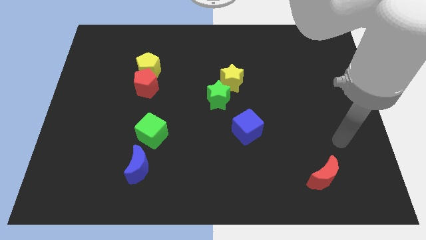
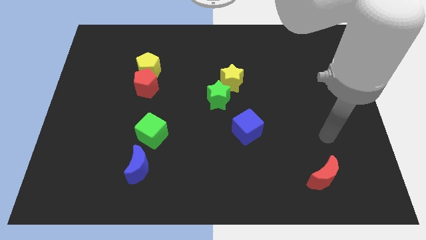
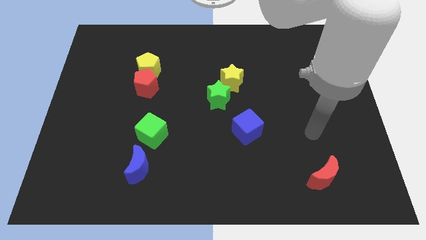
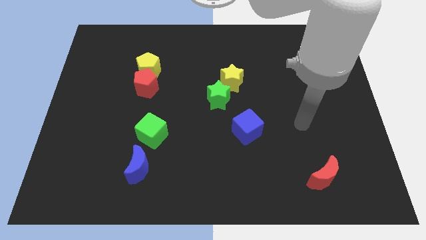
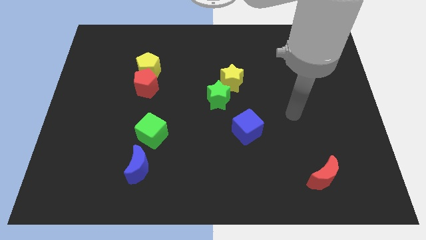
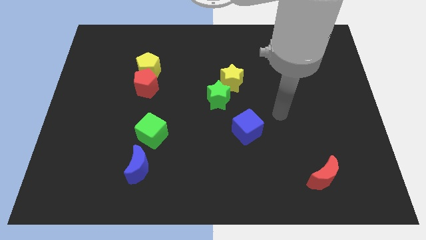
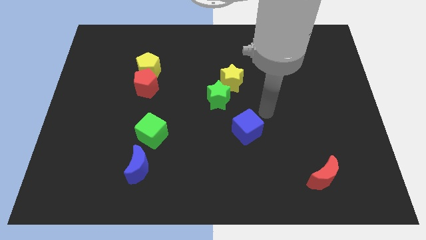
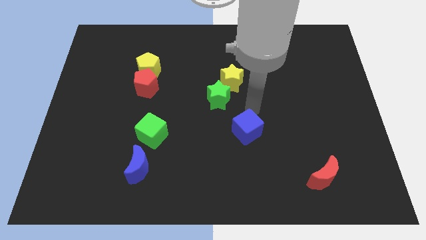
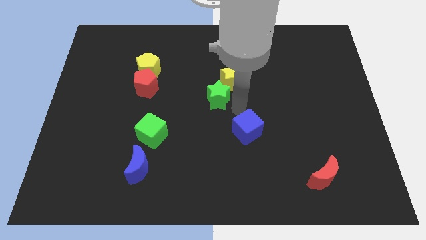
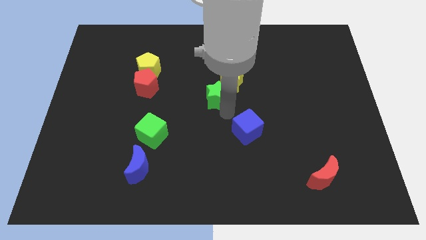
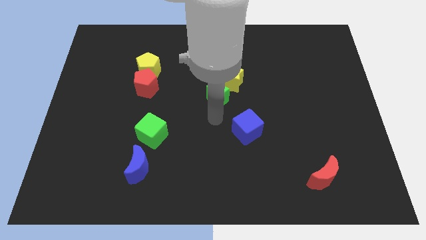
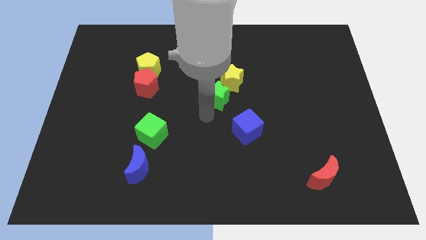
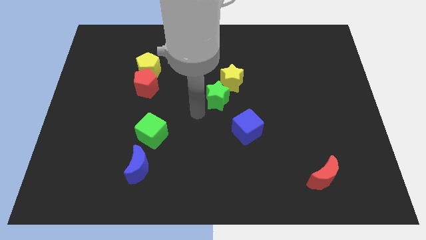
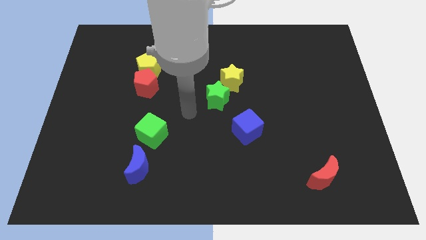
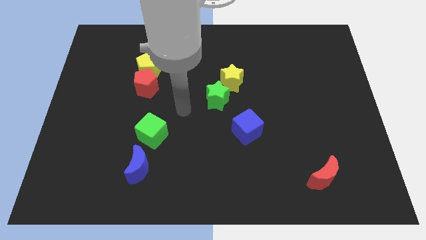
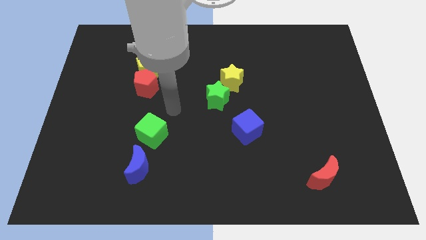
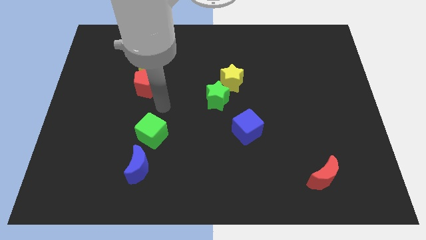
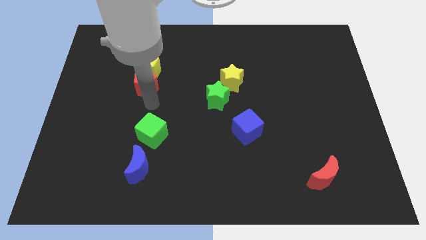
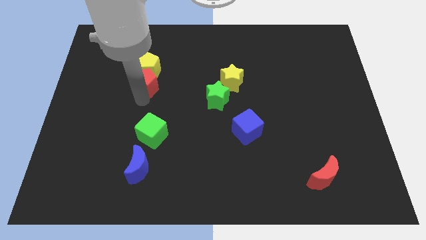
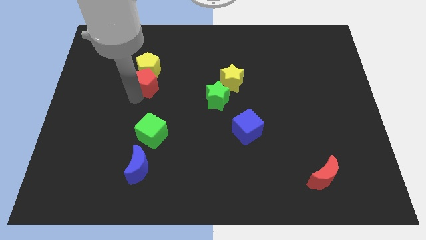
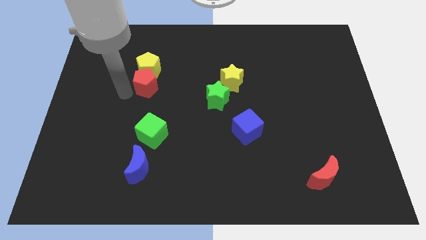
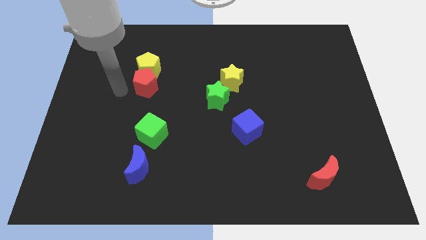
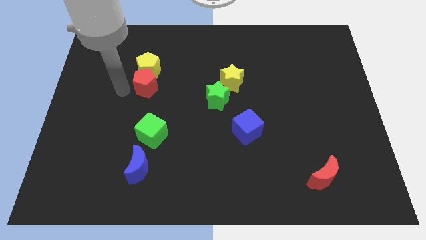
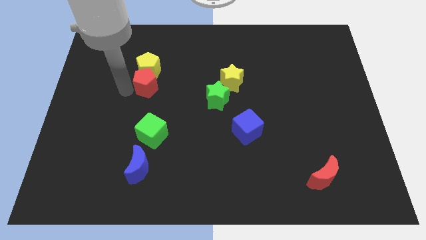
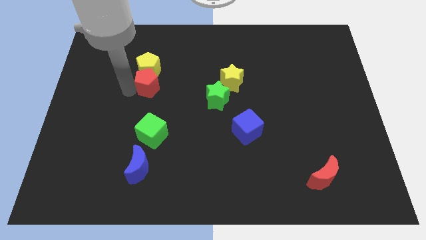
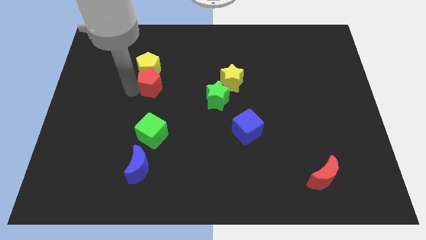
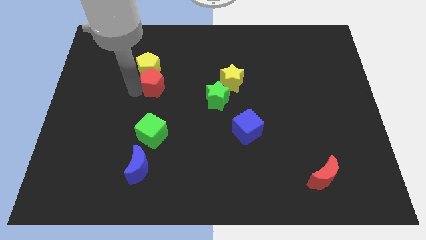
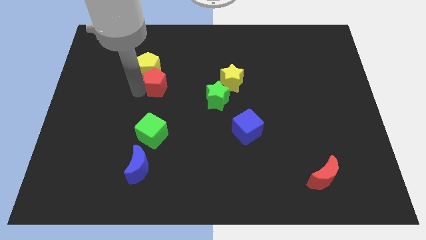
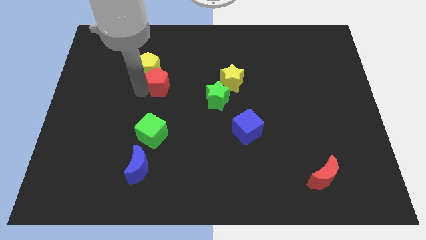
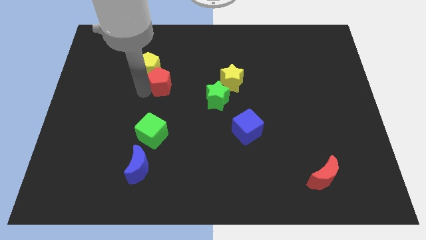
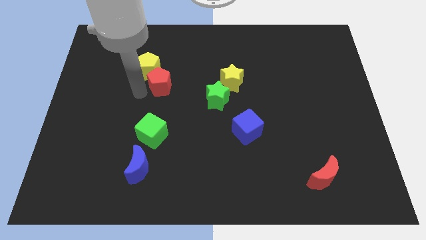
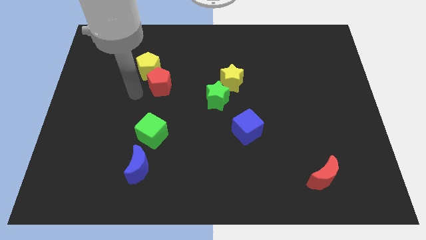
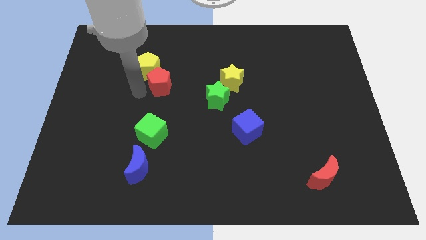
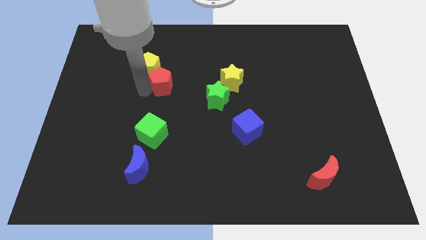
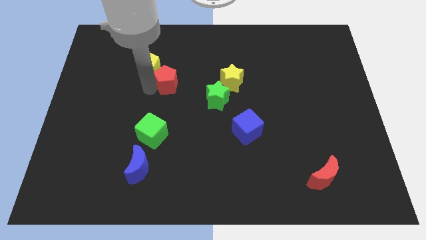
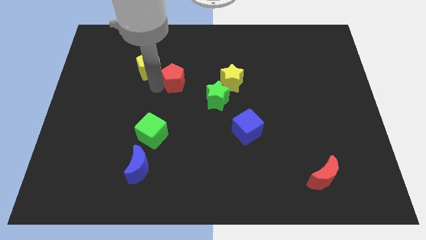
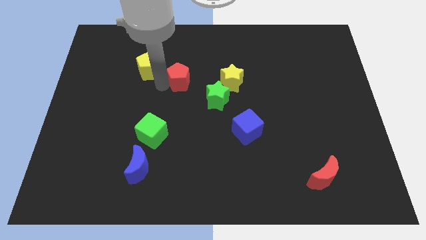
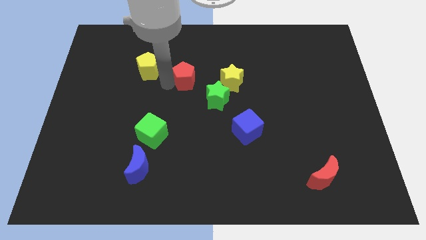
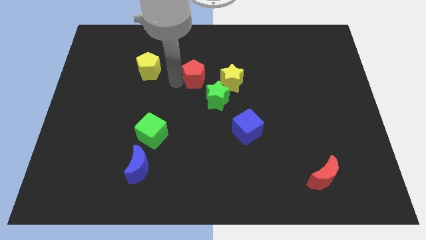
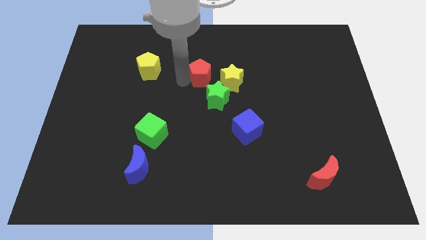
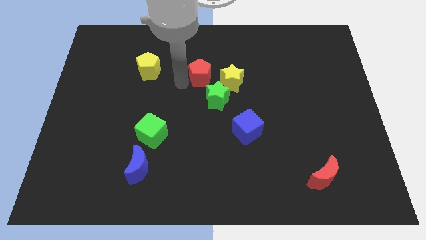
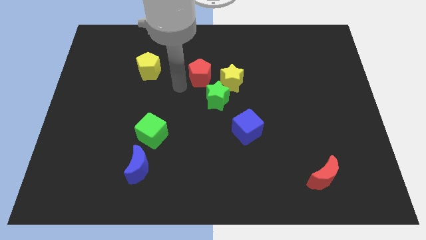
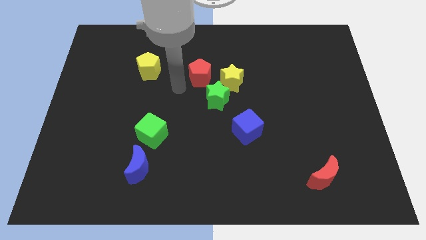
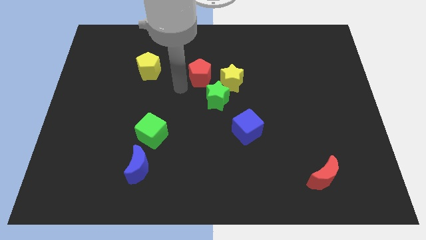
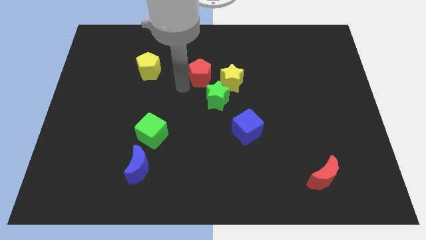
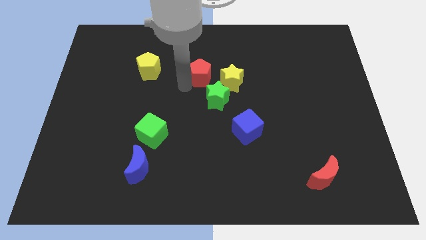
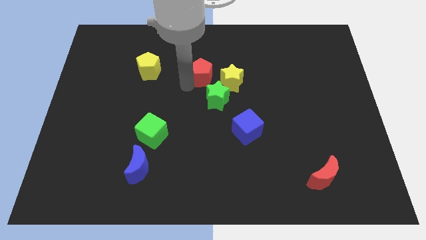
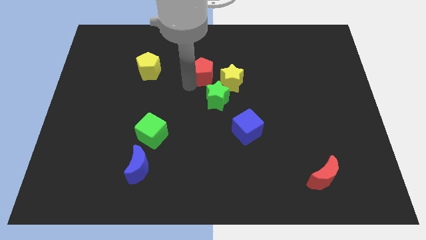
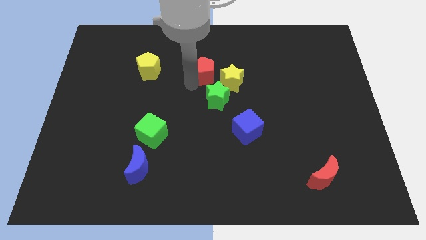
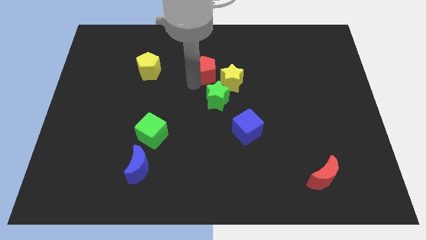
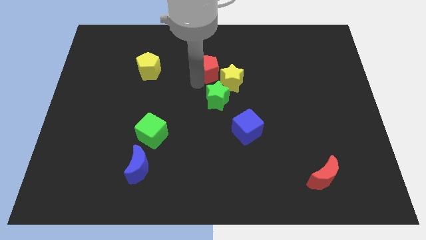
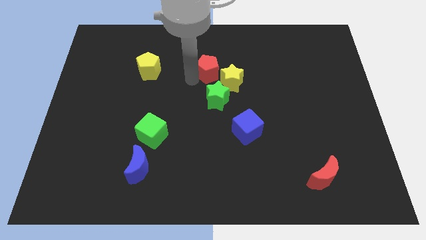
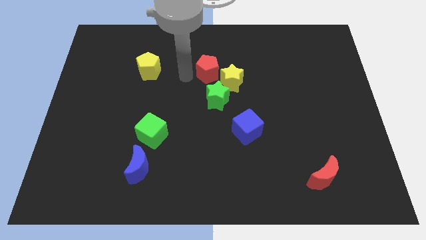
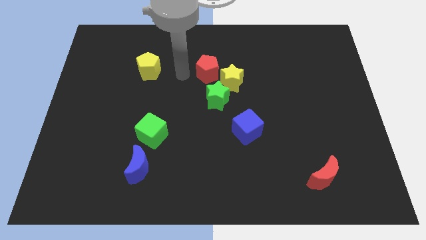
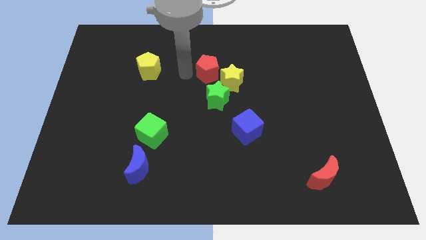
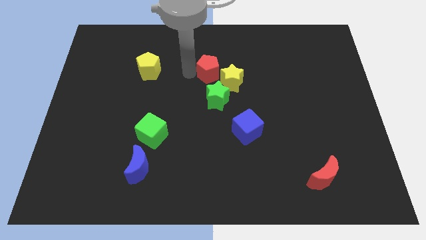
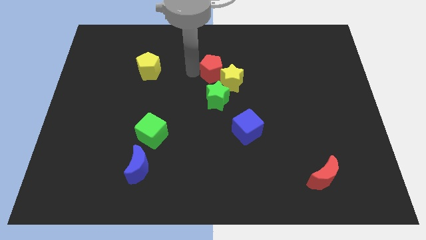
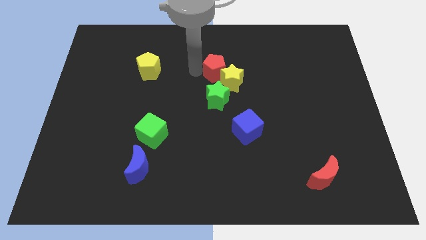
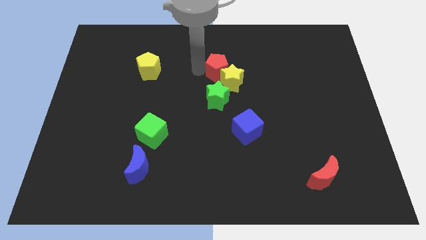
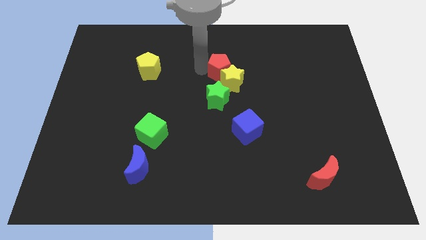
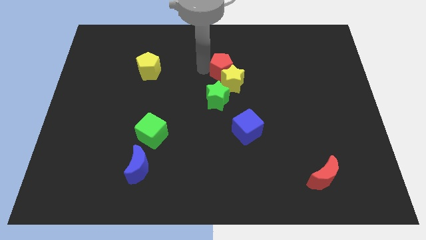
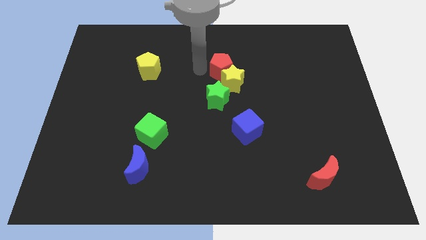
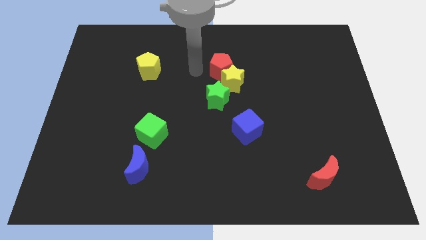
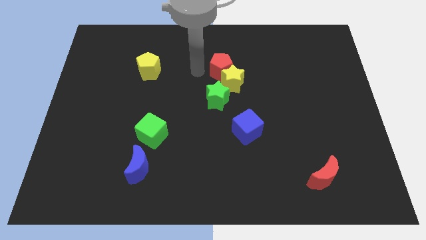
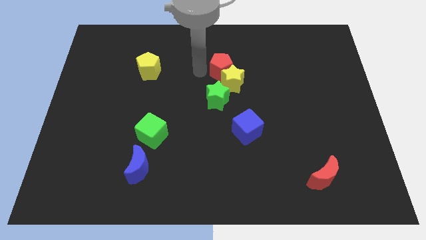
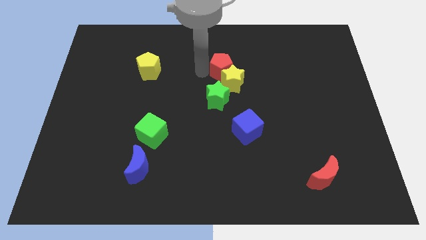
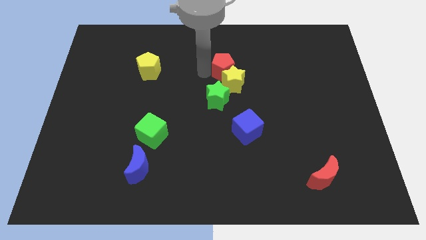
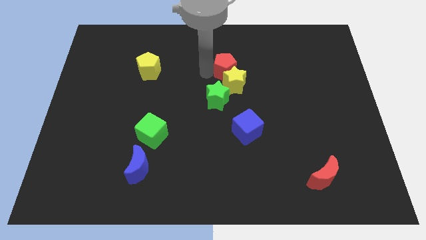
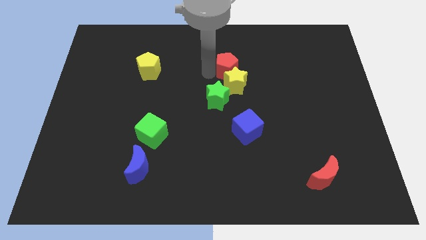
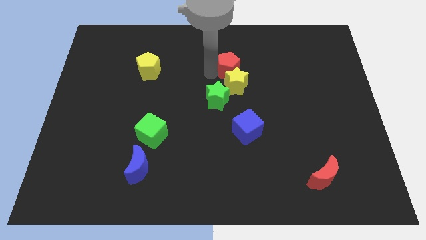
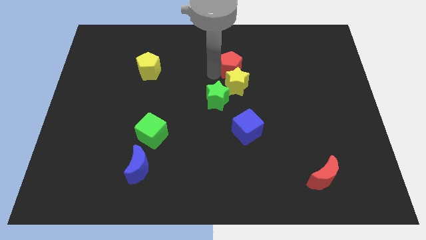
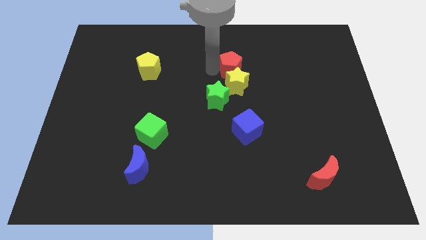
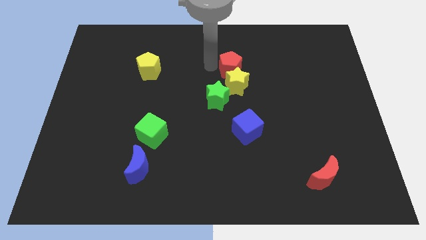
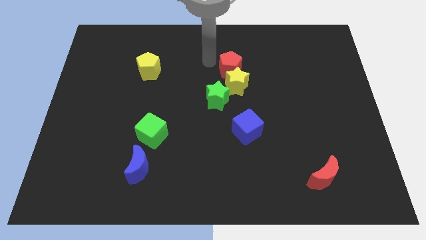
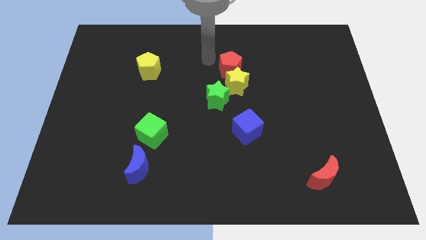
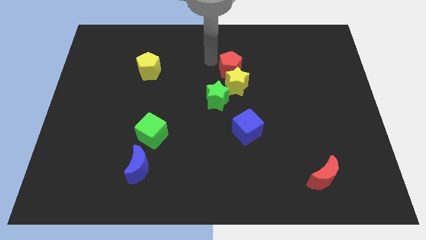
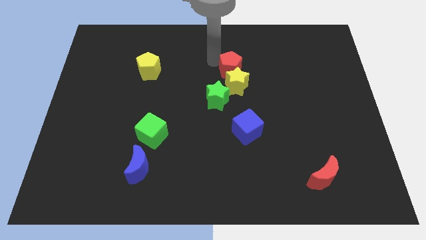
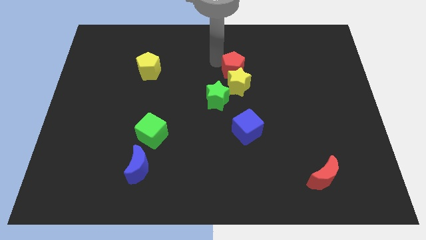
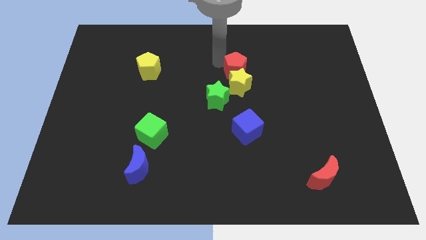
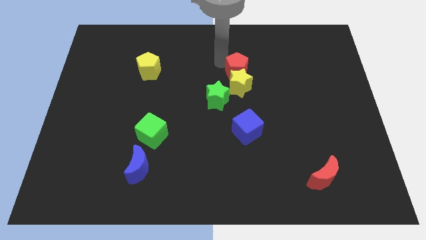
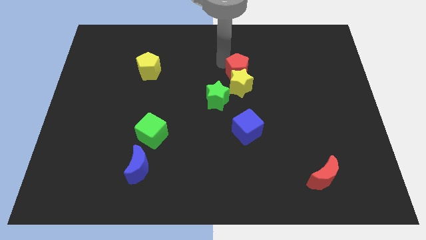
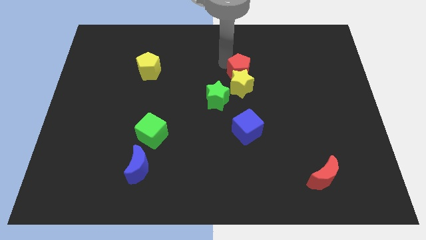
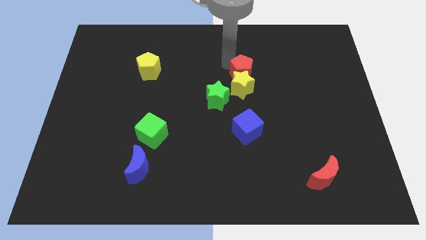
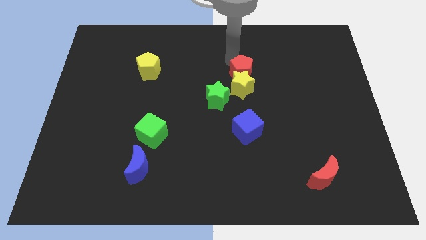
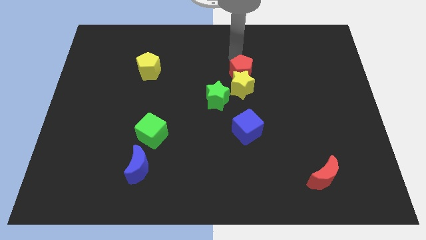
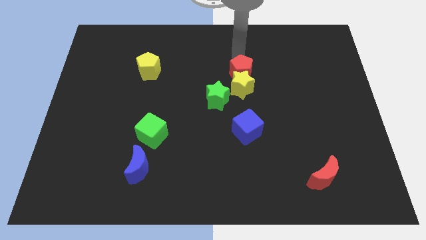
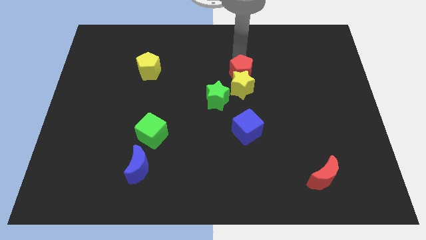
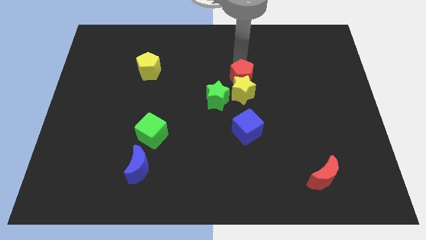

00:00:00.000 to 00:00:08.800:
move the red pentagon to the top side of the blue cube
